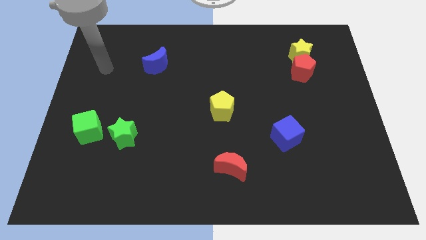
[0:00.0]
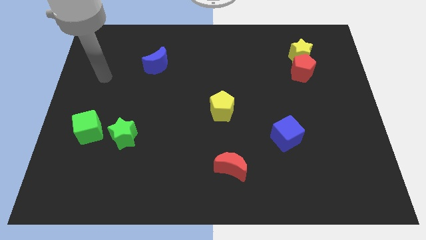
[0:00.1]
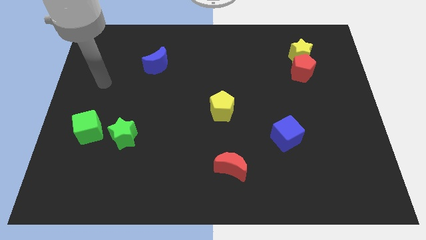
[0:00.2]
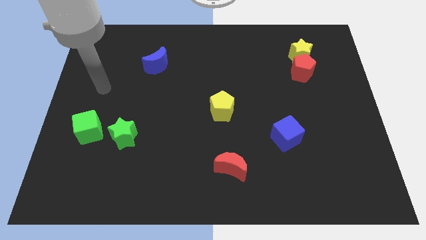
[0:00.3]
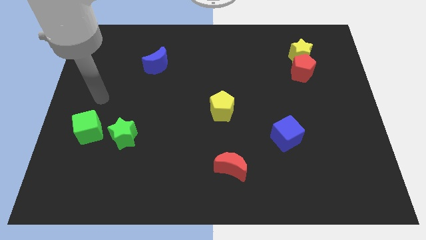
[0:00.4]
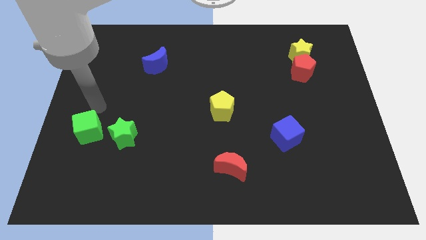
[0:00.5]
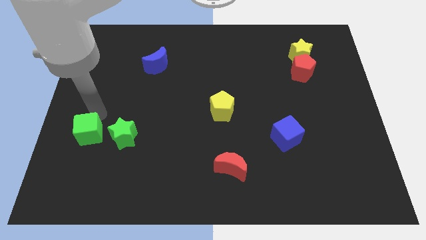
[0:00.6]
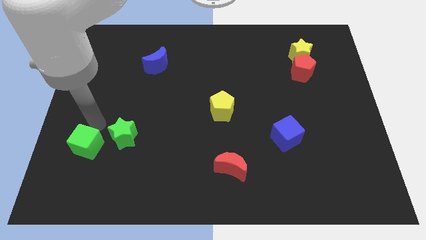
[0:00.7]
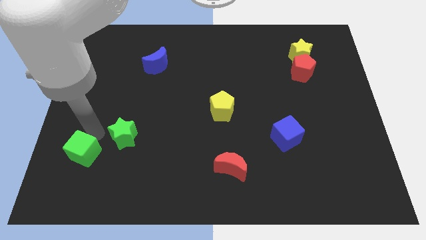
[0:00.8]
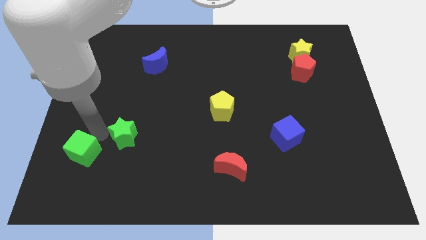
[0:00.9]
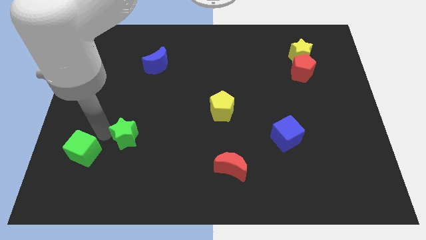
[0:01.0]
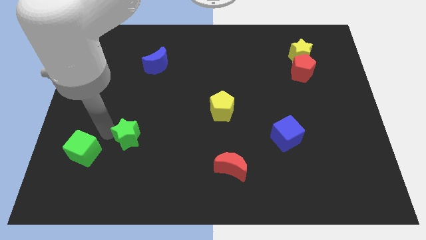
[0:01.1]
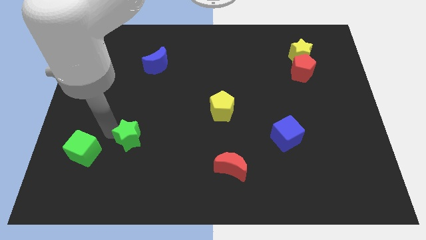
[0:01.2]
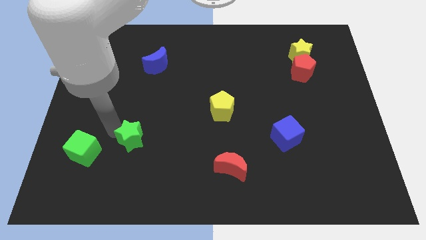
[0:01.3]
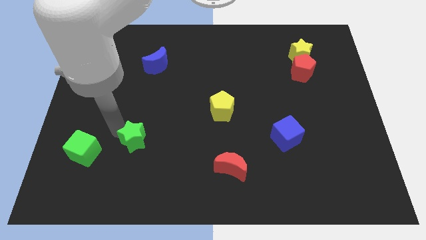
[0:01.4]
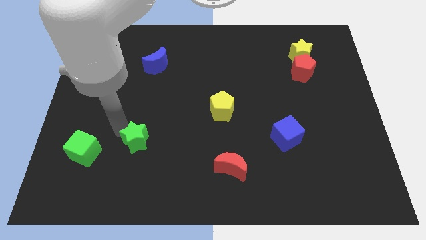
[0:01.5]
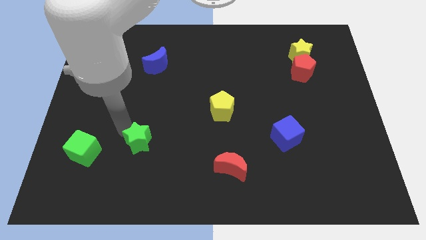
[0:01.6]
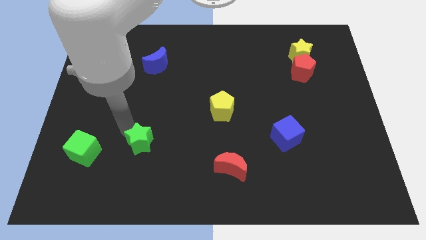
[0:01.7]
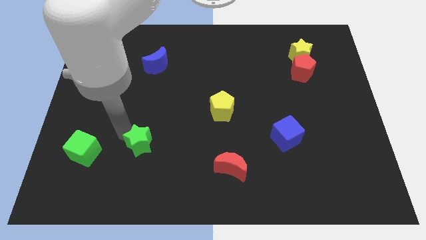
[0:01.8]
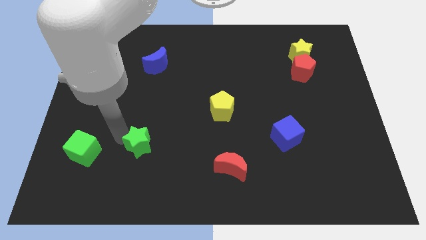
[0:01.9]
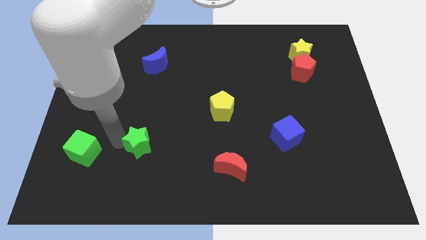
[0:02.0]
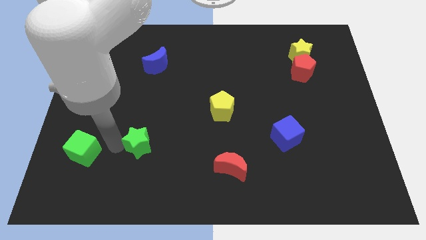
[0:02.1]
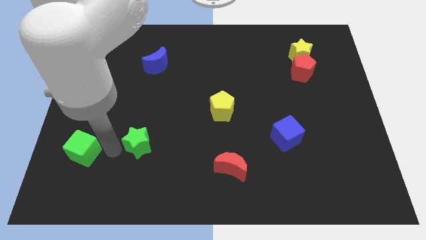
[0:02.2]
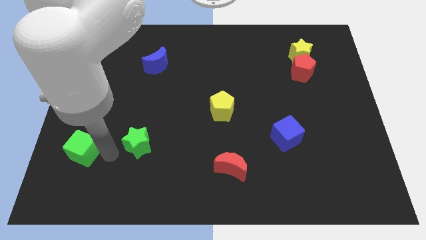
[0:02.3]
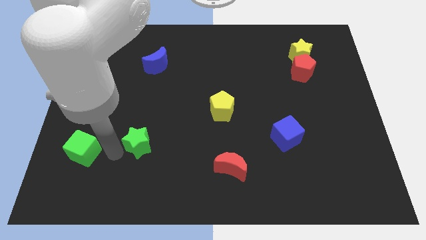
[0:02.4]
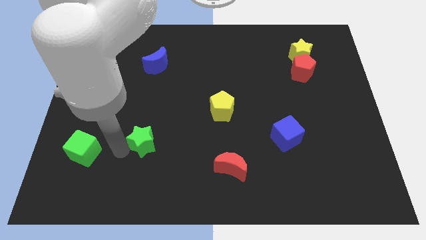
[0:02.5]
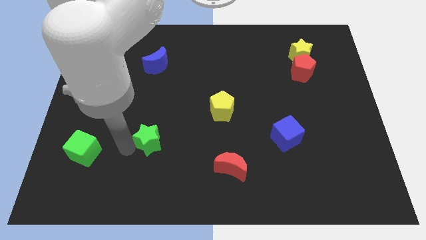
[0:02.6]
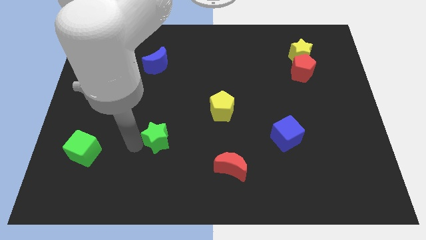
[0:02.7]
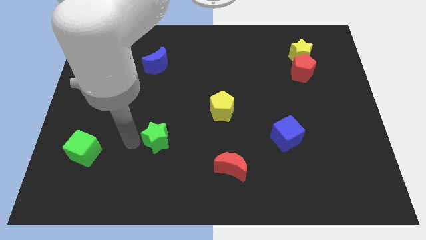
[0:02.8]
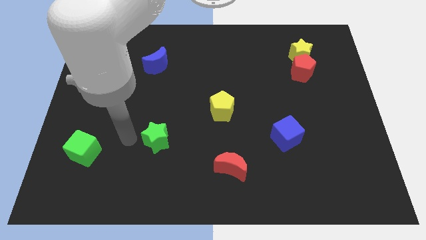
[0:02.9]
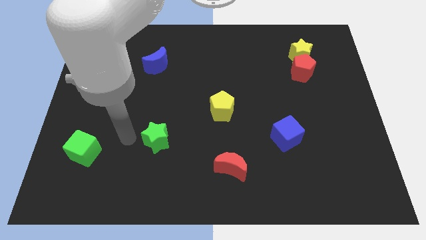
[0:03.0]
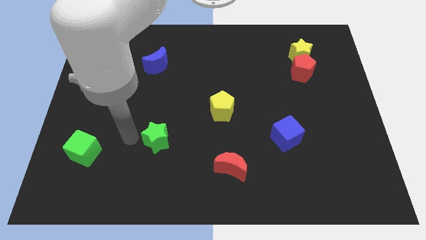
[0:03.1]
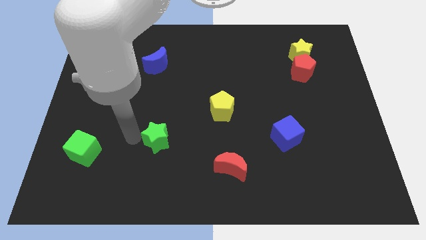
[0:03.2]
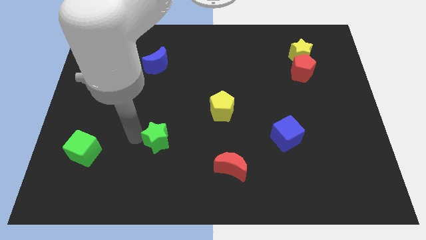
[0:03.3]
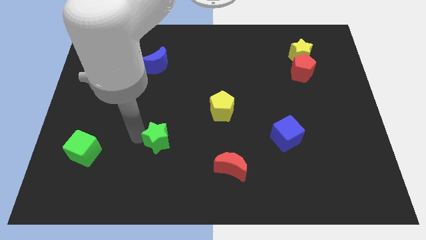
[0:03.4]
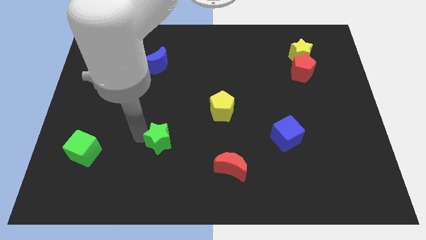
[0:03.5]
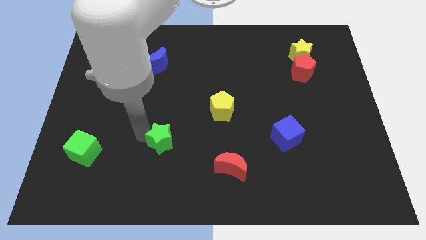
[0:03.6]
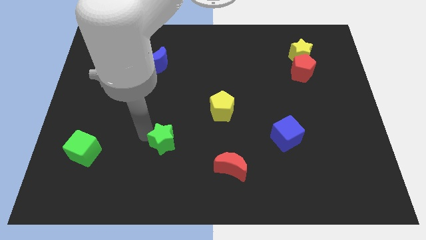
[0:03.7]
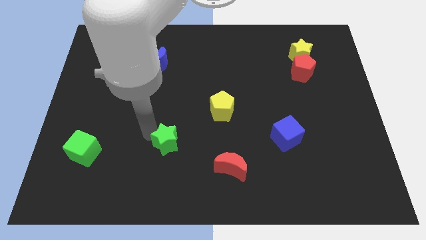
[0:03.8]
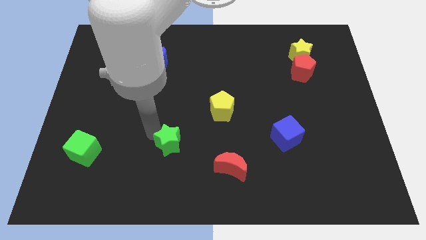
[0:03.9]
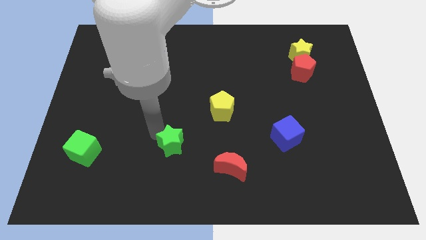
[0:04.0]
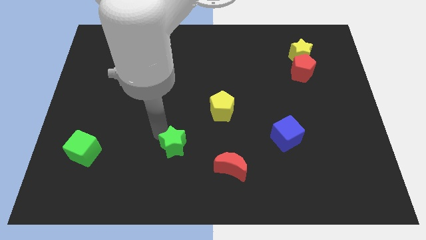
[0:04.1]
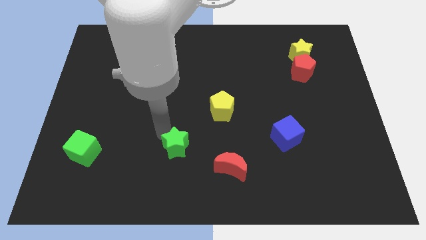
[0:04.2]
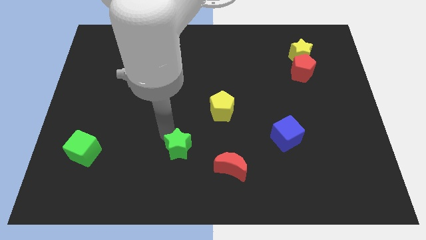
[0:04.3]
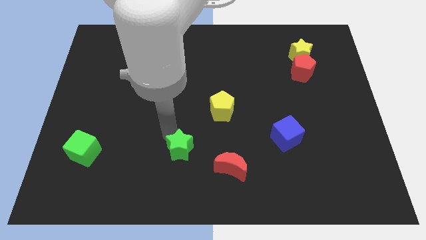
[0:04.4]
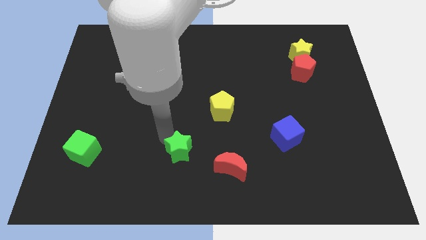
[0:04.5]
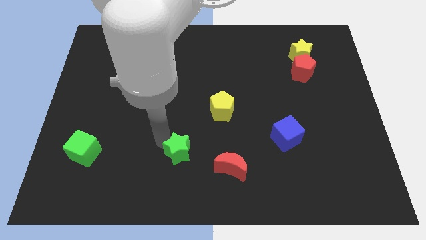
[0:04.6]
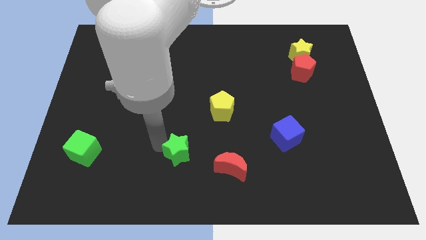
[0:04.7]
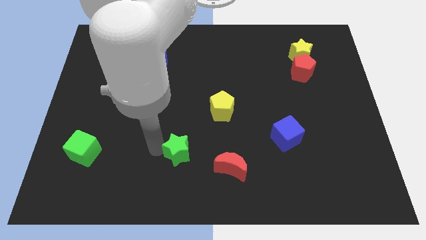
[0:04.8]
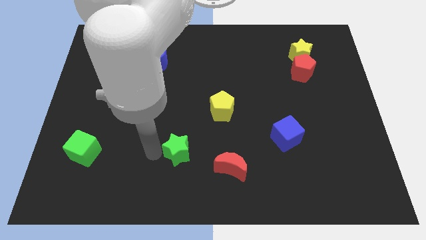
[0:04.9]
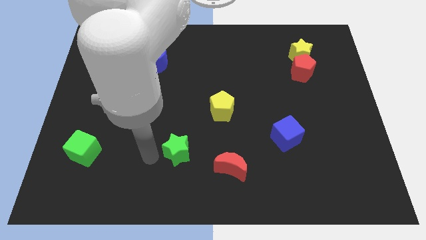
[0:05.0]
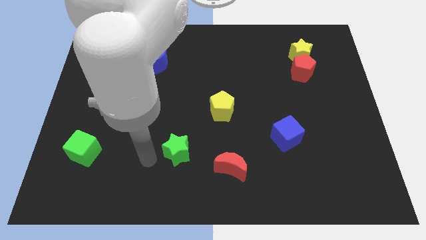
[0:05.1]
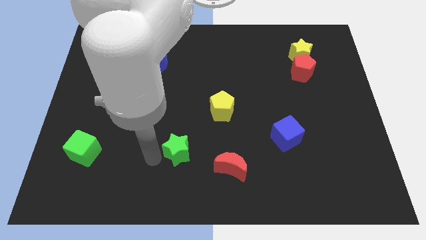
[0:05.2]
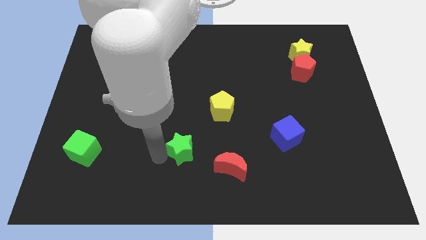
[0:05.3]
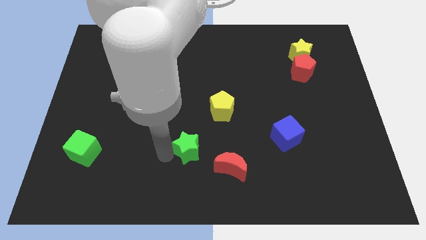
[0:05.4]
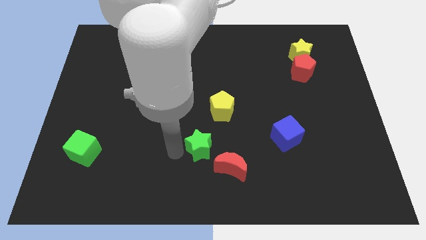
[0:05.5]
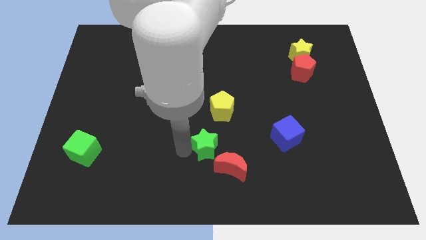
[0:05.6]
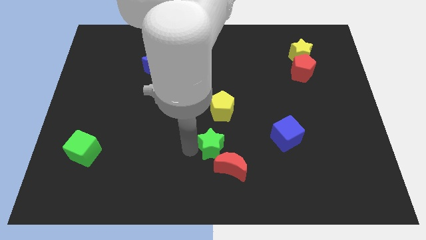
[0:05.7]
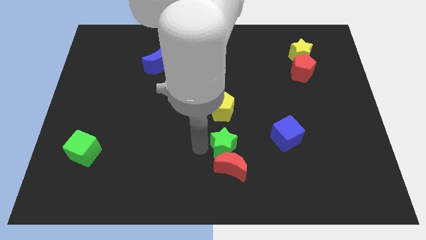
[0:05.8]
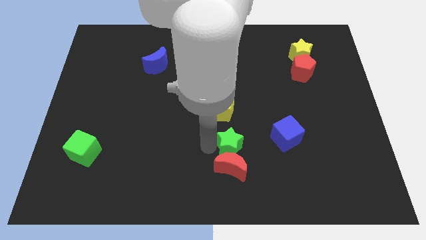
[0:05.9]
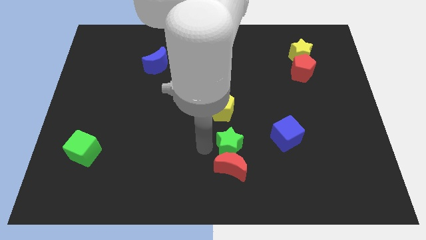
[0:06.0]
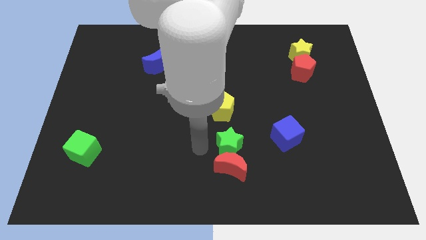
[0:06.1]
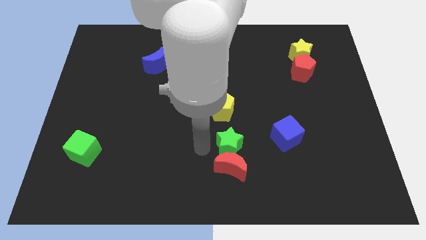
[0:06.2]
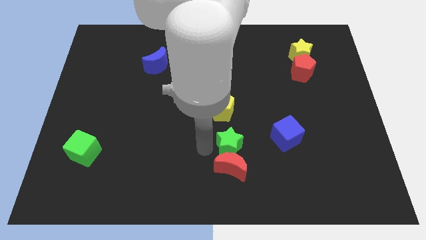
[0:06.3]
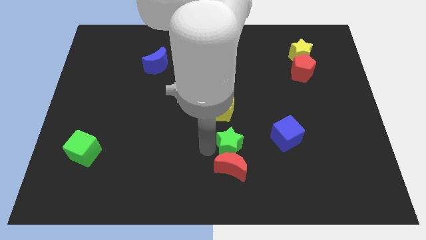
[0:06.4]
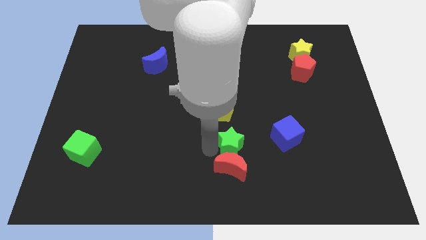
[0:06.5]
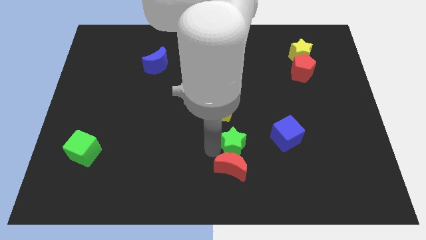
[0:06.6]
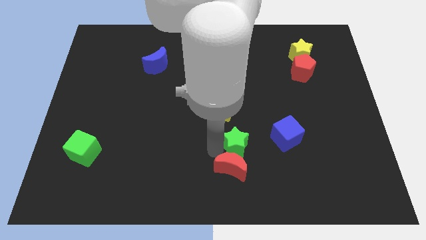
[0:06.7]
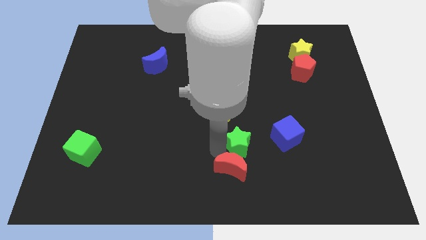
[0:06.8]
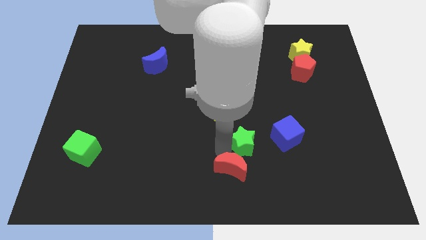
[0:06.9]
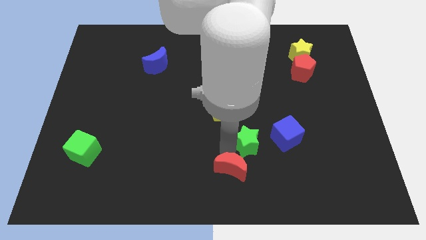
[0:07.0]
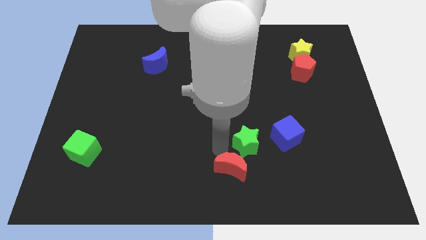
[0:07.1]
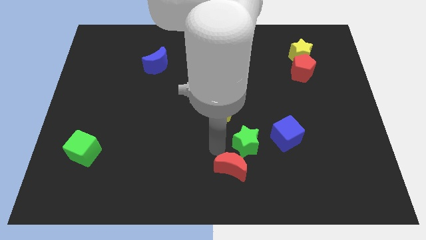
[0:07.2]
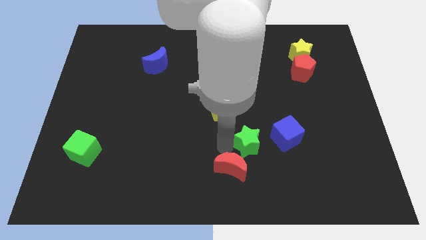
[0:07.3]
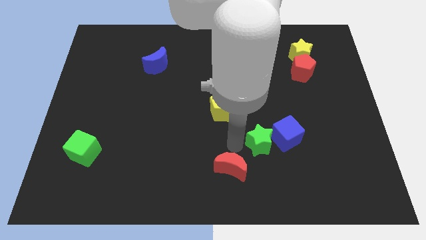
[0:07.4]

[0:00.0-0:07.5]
slide the green star to the blue cube
